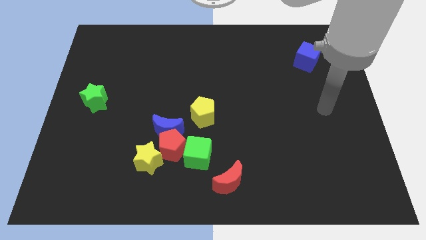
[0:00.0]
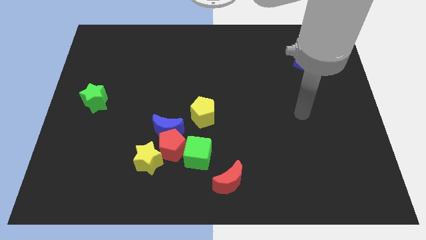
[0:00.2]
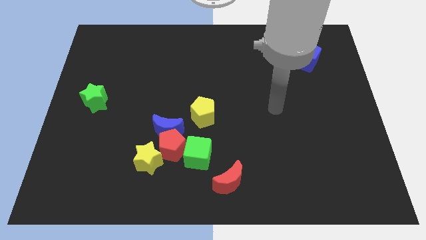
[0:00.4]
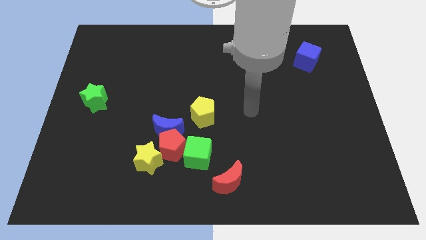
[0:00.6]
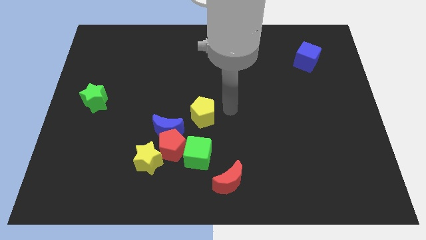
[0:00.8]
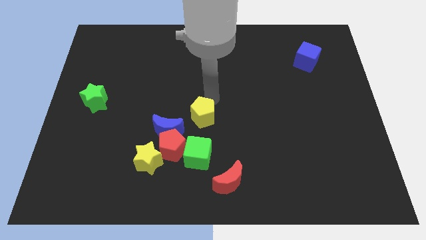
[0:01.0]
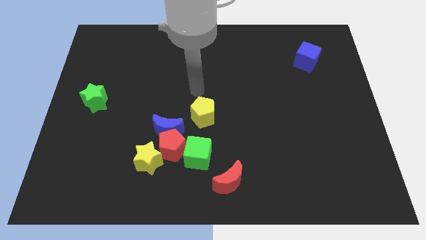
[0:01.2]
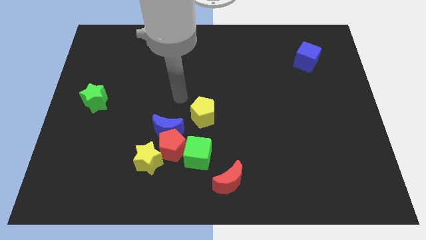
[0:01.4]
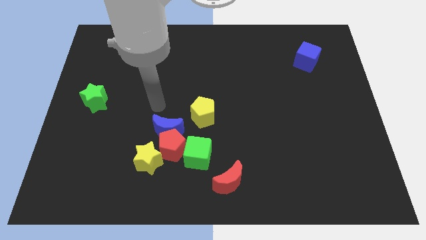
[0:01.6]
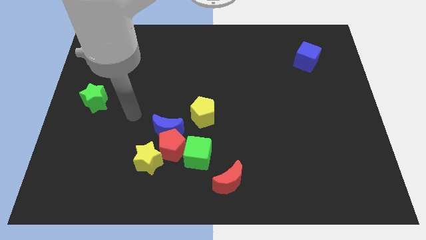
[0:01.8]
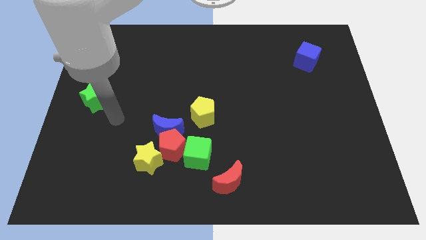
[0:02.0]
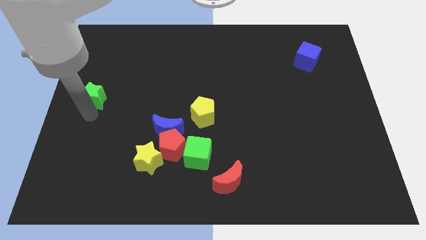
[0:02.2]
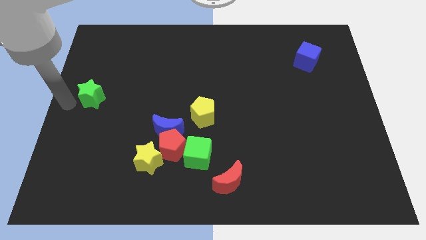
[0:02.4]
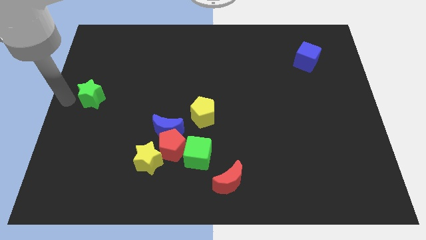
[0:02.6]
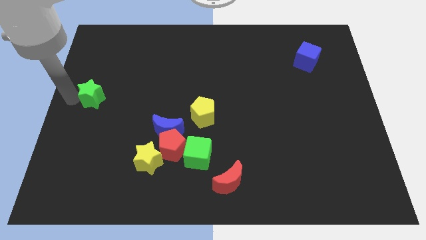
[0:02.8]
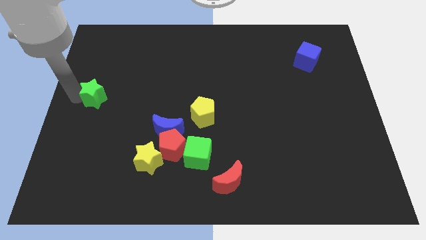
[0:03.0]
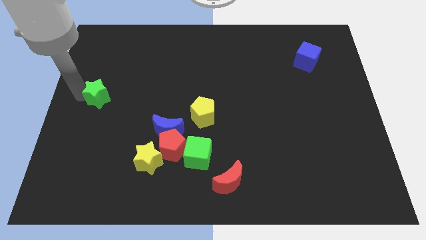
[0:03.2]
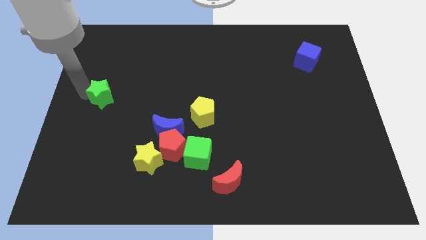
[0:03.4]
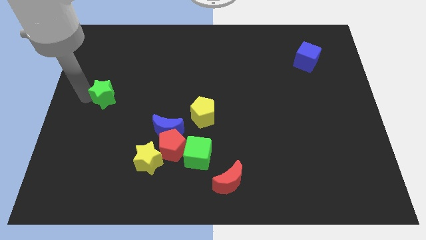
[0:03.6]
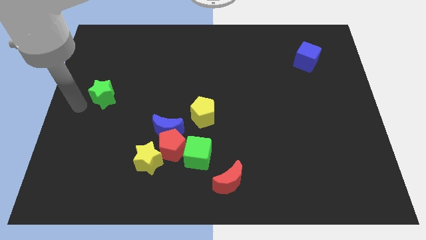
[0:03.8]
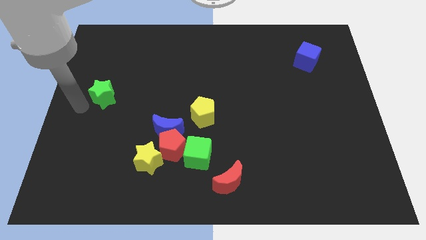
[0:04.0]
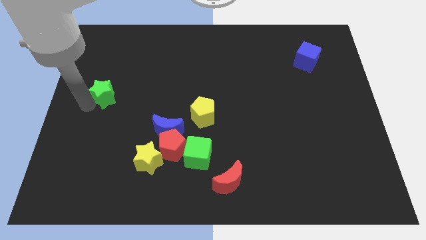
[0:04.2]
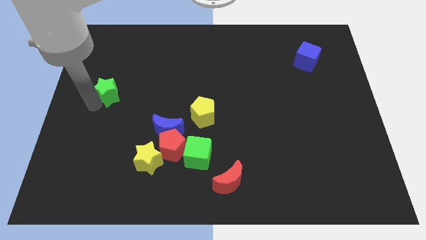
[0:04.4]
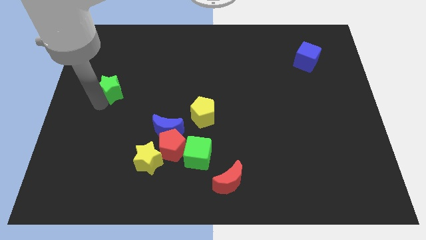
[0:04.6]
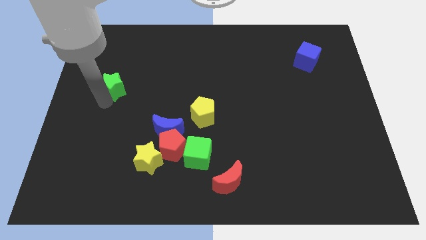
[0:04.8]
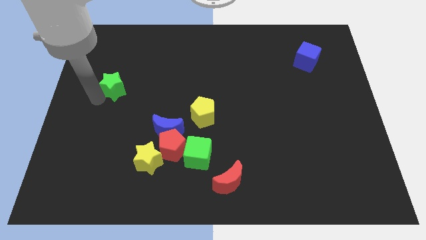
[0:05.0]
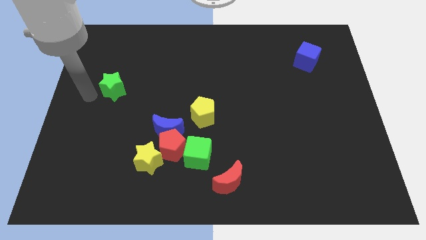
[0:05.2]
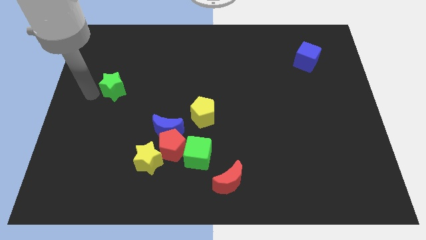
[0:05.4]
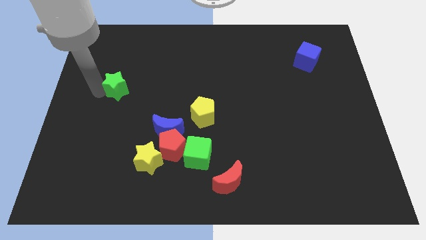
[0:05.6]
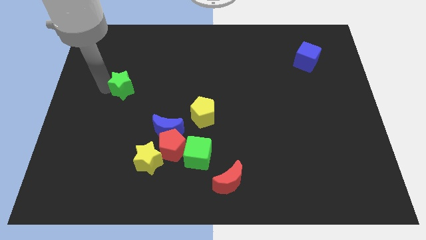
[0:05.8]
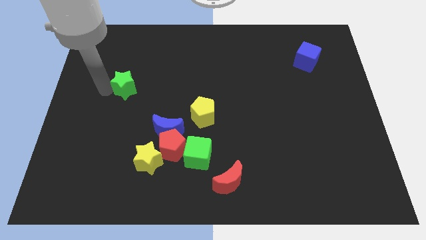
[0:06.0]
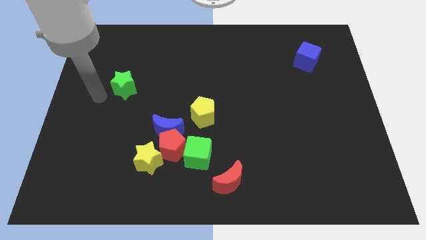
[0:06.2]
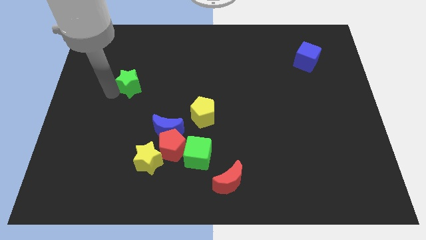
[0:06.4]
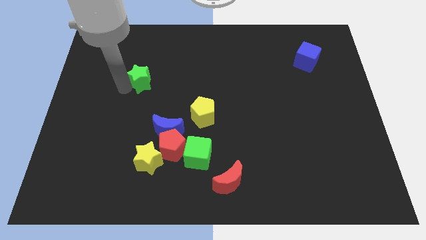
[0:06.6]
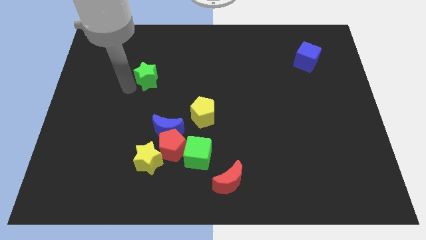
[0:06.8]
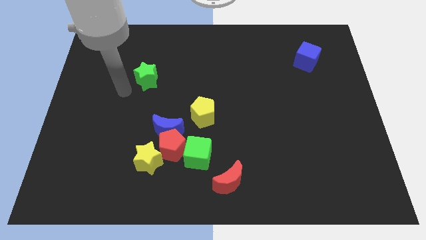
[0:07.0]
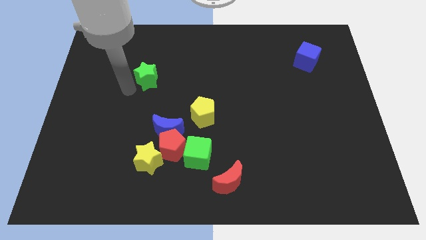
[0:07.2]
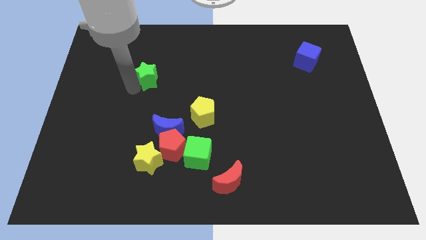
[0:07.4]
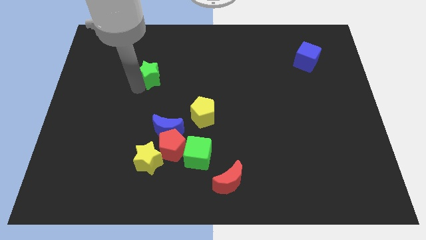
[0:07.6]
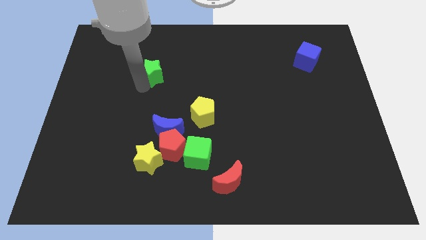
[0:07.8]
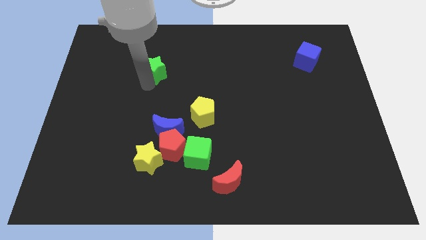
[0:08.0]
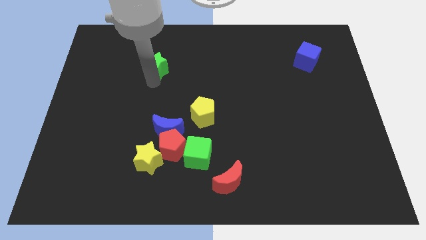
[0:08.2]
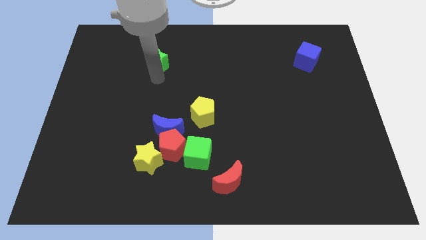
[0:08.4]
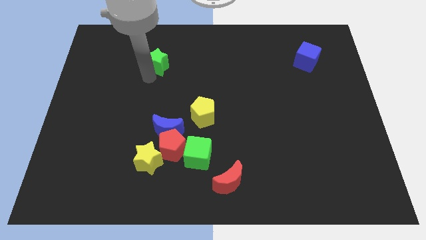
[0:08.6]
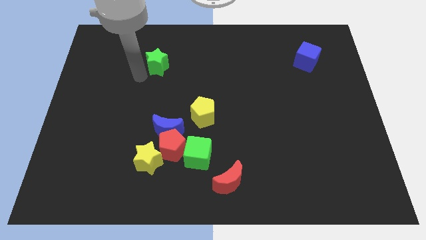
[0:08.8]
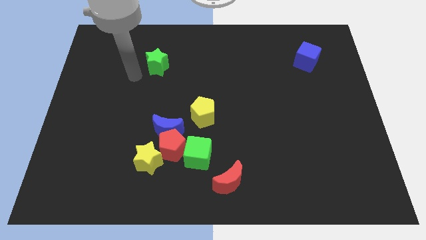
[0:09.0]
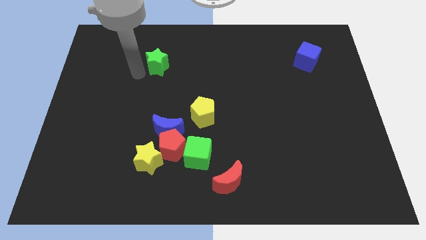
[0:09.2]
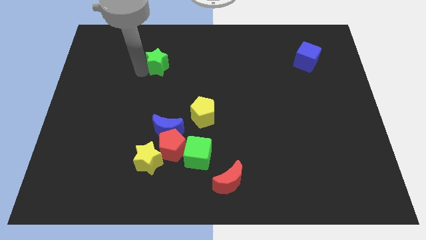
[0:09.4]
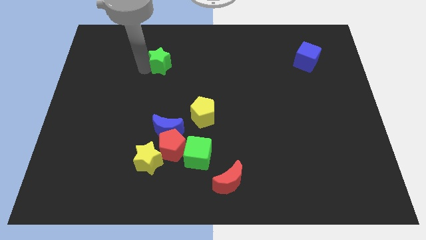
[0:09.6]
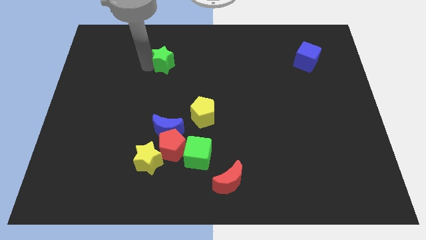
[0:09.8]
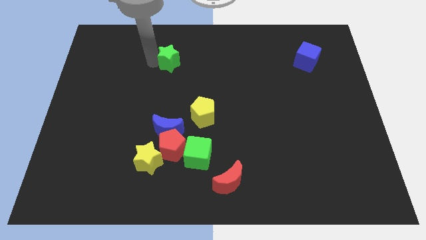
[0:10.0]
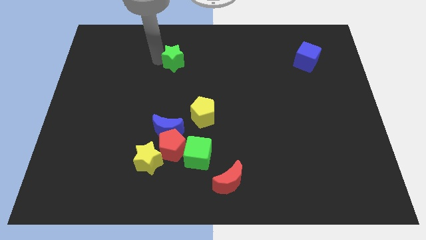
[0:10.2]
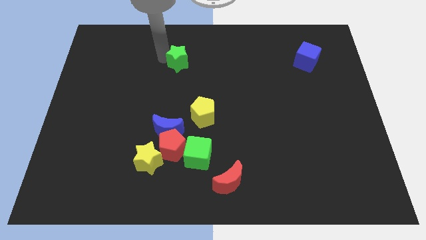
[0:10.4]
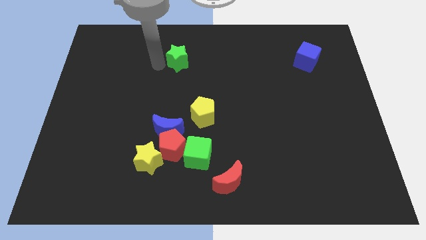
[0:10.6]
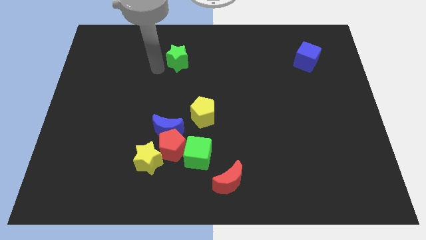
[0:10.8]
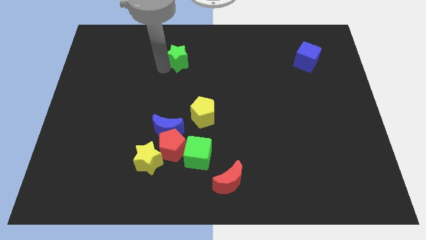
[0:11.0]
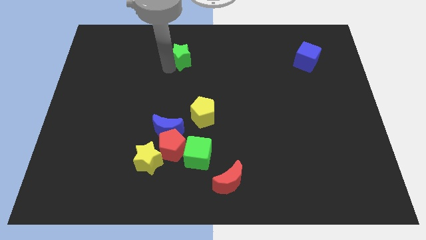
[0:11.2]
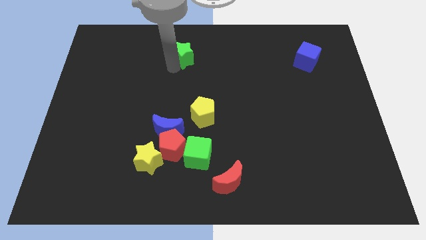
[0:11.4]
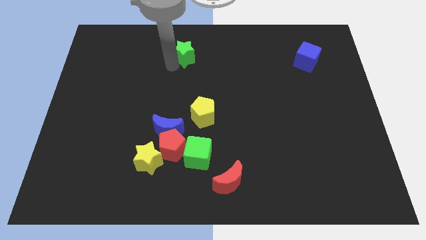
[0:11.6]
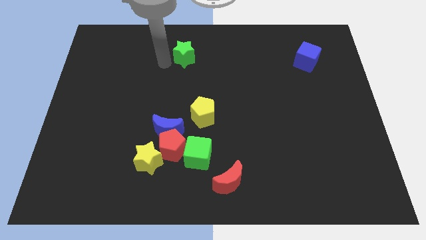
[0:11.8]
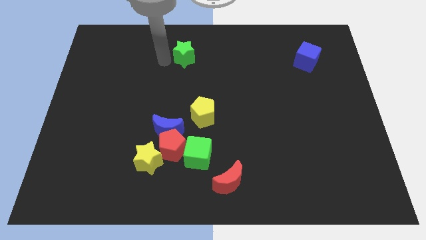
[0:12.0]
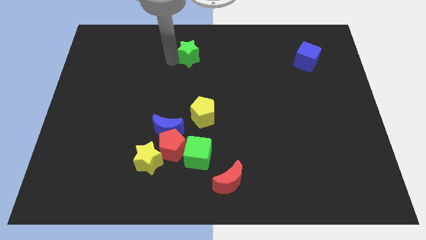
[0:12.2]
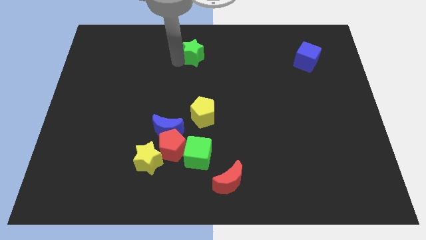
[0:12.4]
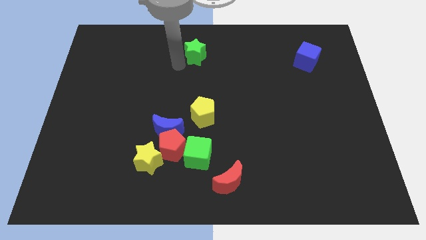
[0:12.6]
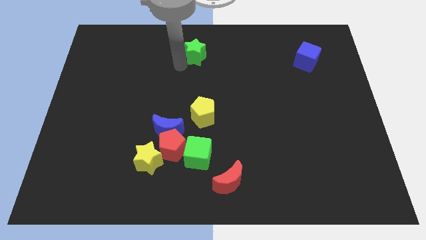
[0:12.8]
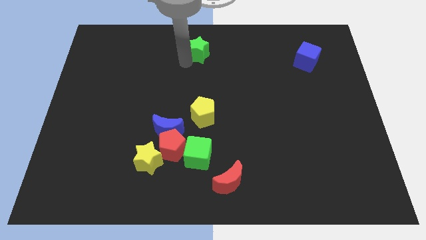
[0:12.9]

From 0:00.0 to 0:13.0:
move the green star to the towards your base
